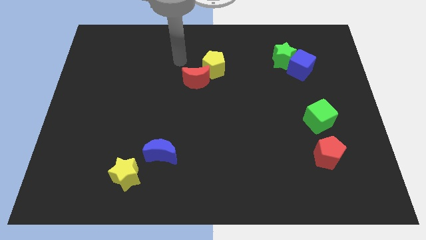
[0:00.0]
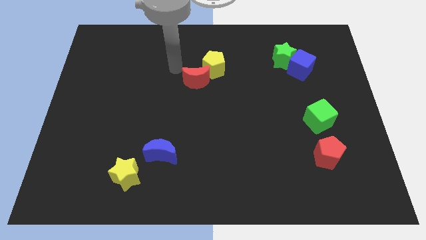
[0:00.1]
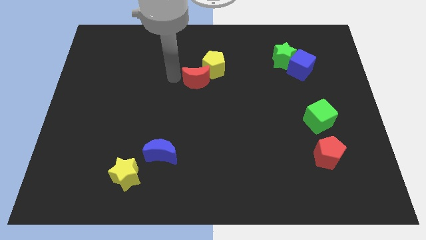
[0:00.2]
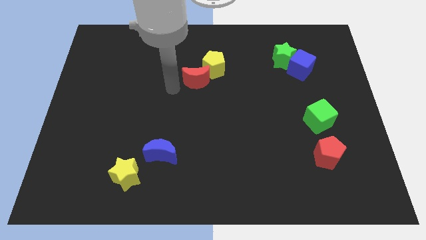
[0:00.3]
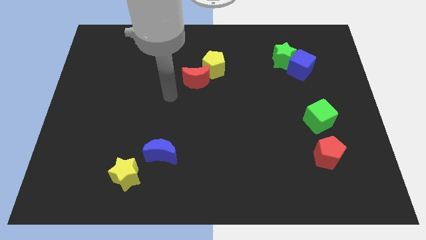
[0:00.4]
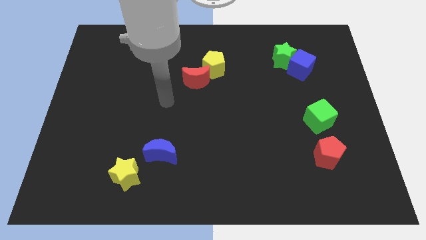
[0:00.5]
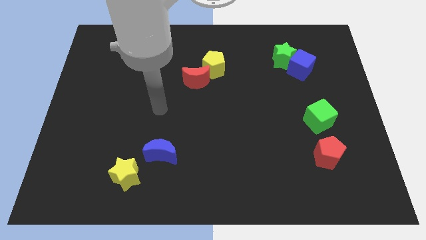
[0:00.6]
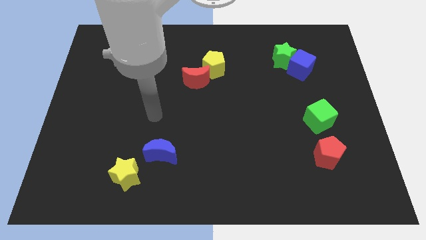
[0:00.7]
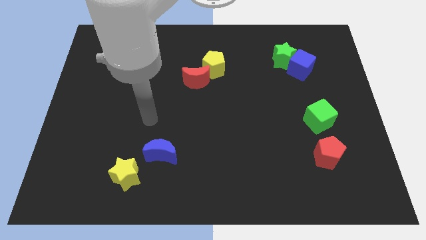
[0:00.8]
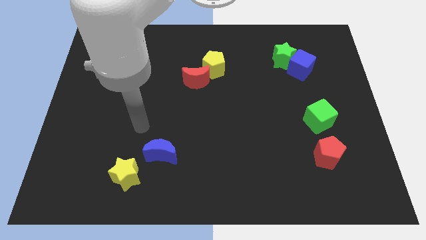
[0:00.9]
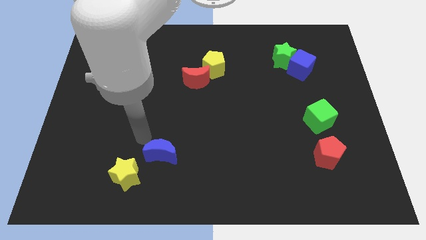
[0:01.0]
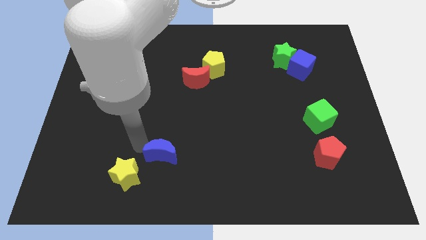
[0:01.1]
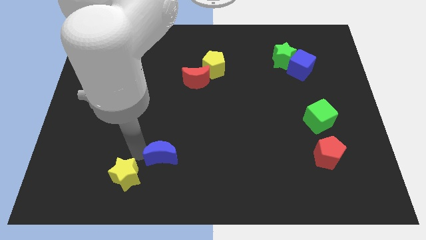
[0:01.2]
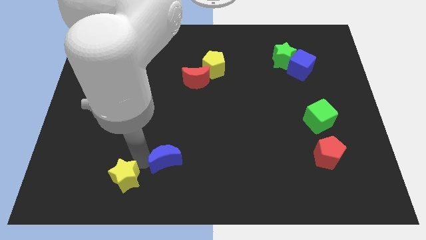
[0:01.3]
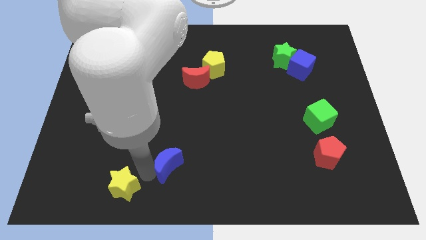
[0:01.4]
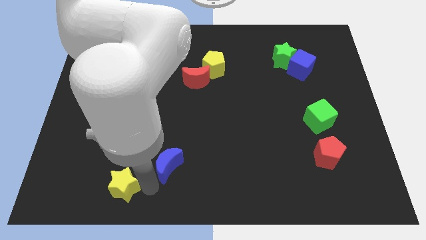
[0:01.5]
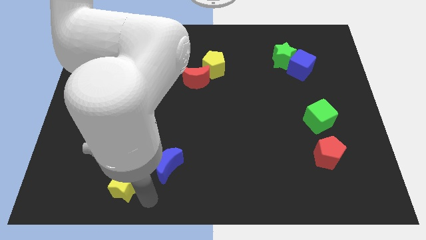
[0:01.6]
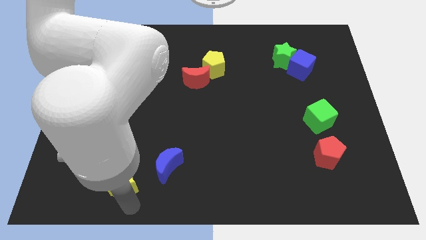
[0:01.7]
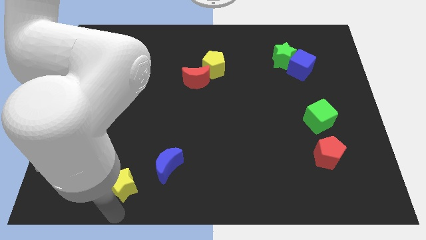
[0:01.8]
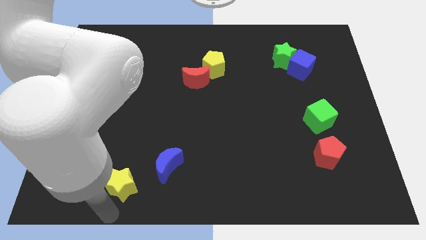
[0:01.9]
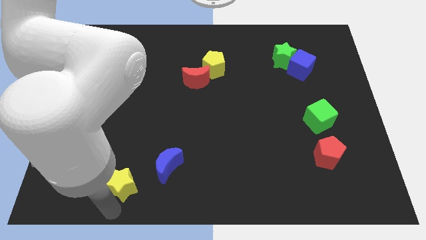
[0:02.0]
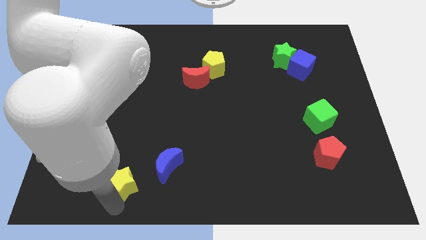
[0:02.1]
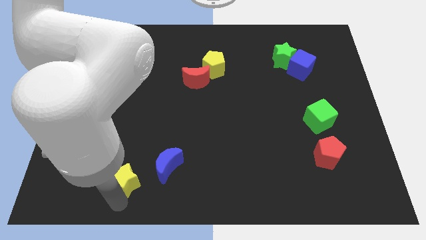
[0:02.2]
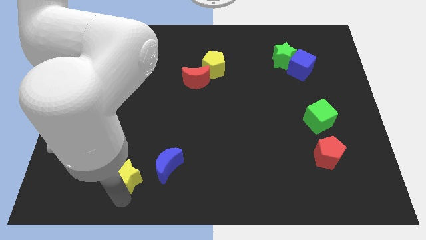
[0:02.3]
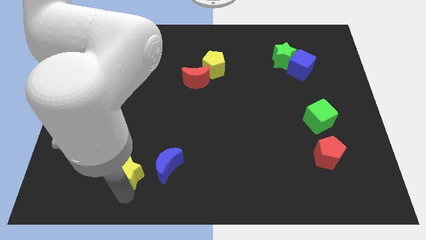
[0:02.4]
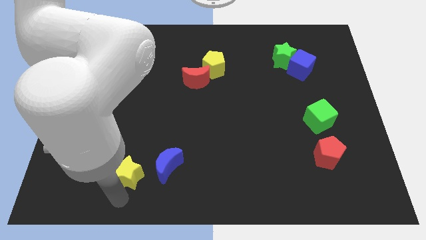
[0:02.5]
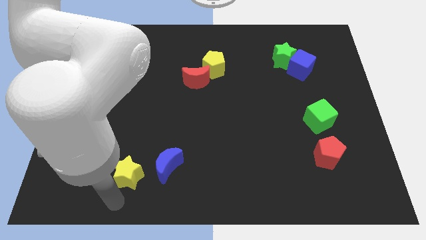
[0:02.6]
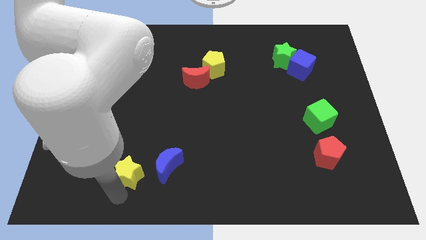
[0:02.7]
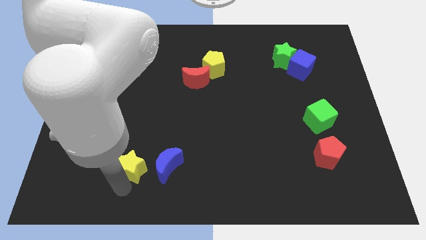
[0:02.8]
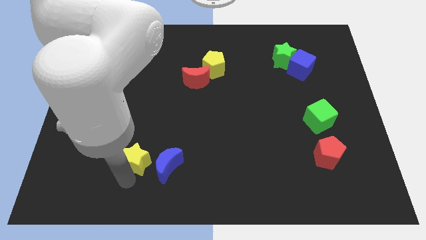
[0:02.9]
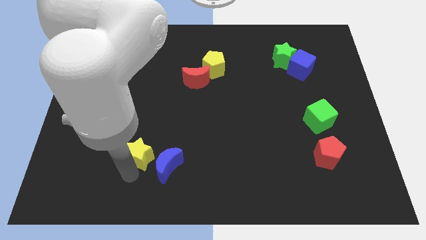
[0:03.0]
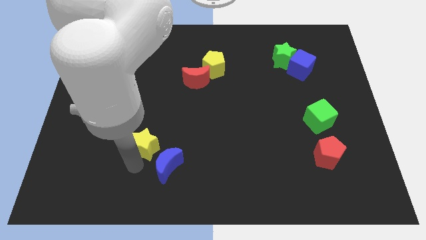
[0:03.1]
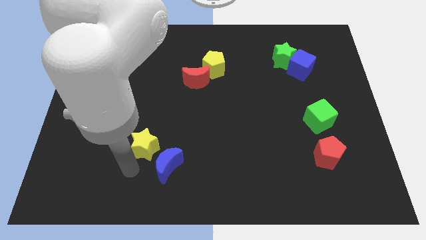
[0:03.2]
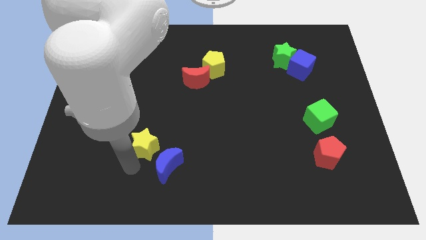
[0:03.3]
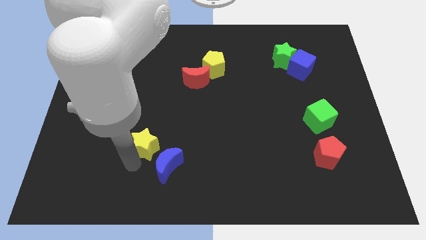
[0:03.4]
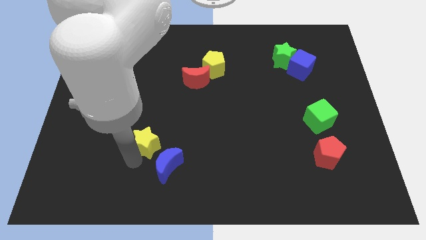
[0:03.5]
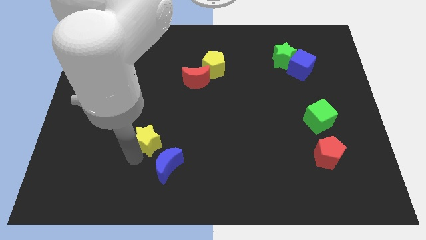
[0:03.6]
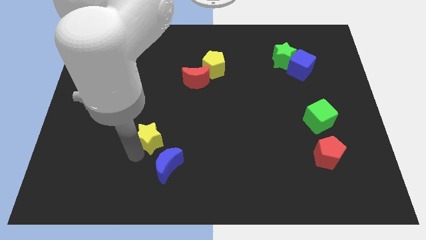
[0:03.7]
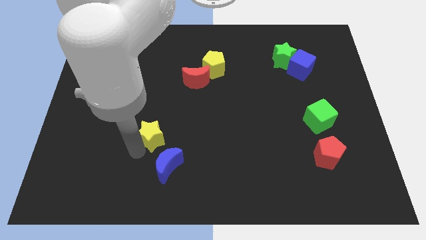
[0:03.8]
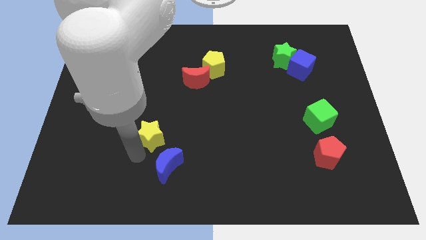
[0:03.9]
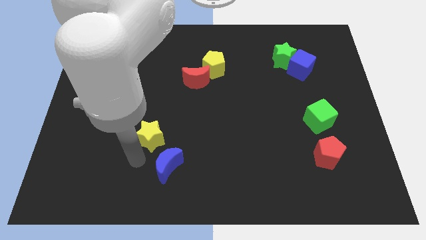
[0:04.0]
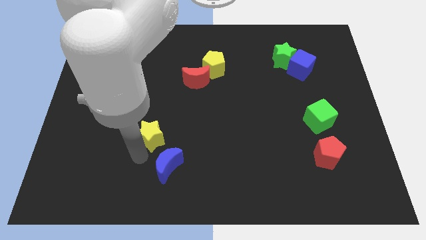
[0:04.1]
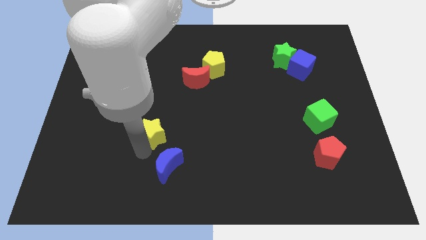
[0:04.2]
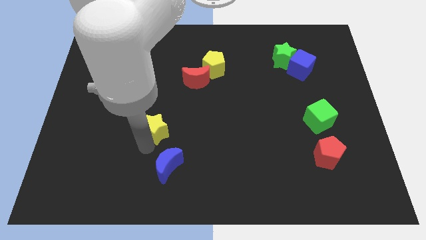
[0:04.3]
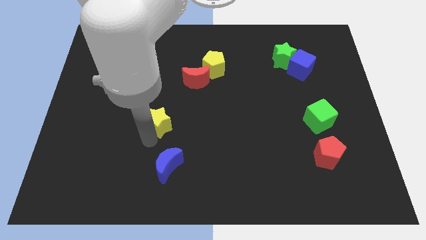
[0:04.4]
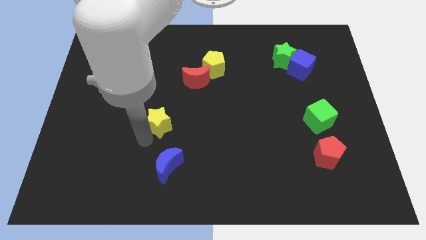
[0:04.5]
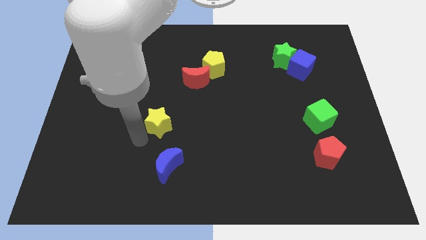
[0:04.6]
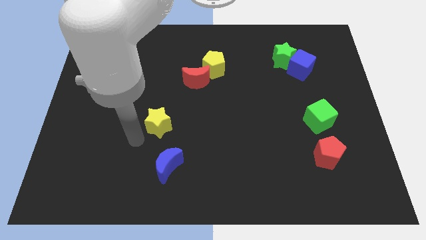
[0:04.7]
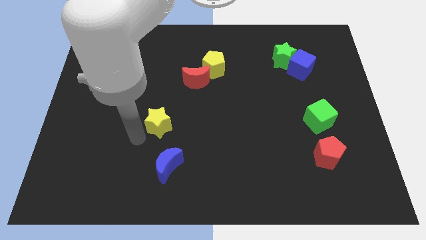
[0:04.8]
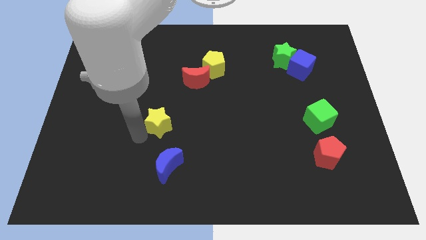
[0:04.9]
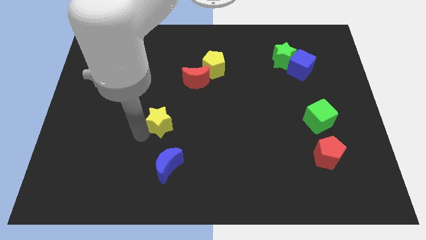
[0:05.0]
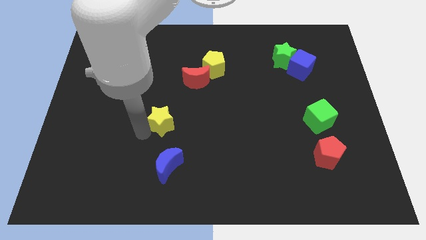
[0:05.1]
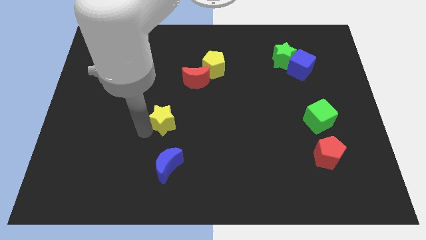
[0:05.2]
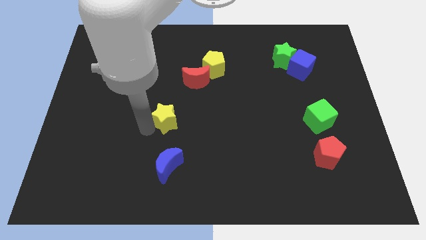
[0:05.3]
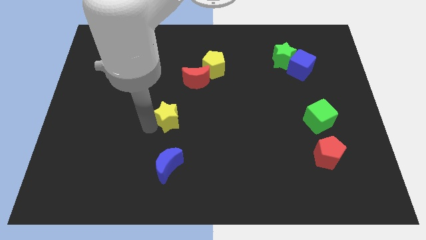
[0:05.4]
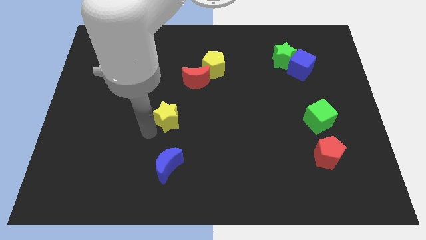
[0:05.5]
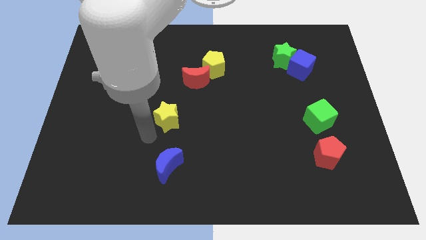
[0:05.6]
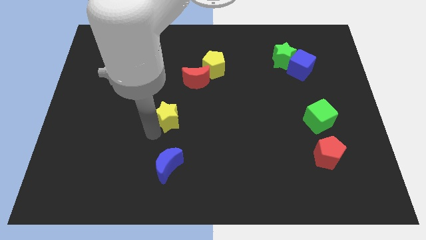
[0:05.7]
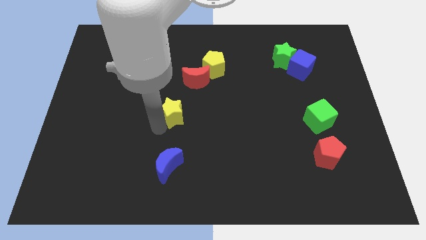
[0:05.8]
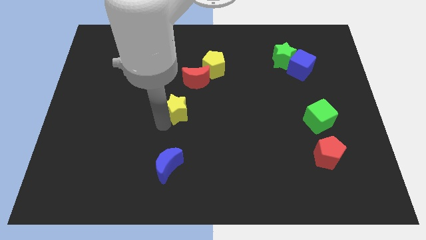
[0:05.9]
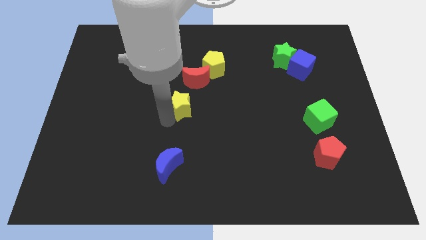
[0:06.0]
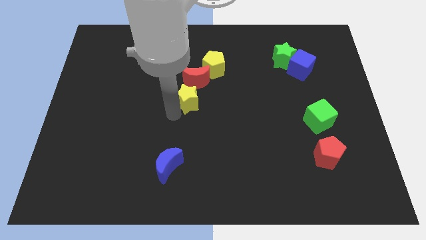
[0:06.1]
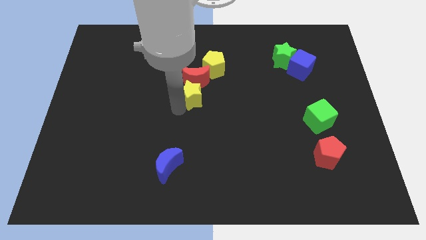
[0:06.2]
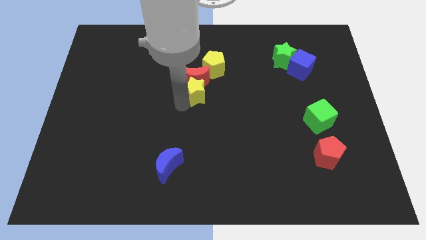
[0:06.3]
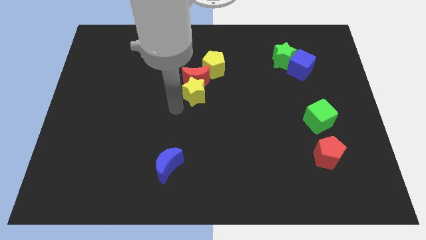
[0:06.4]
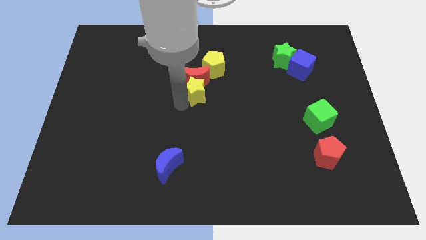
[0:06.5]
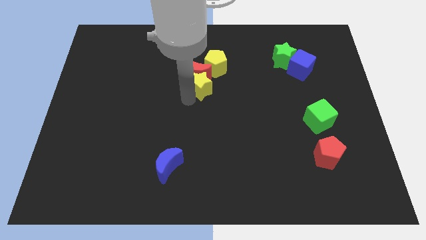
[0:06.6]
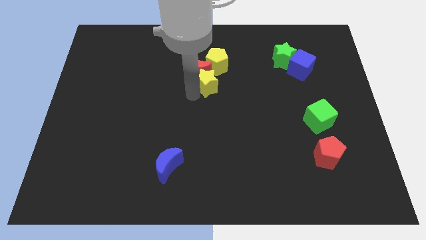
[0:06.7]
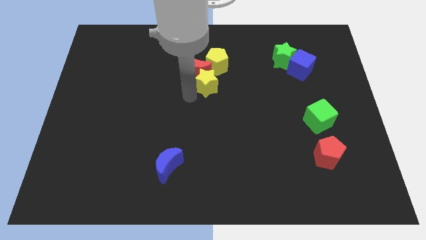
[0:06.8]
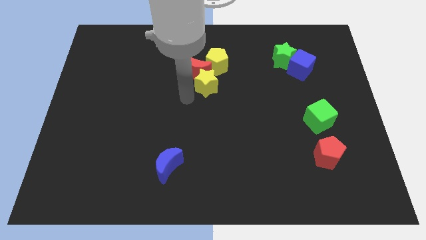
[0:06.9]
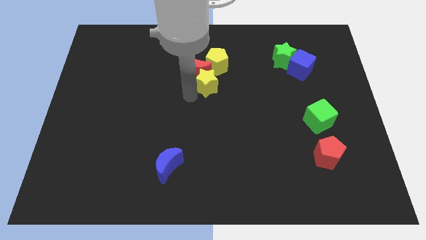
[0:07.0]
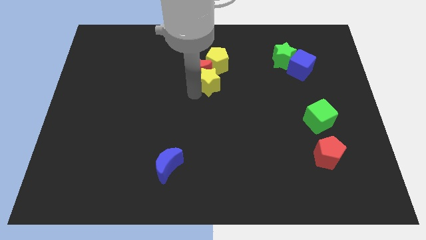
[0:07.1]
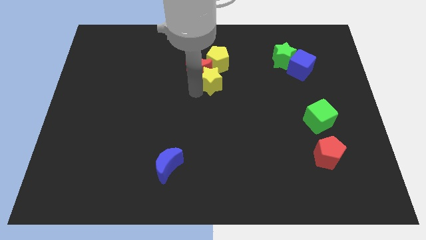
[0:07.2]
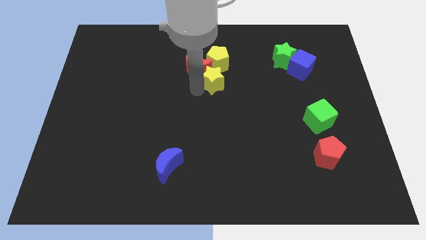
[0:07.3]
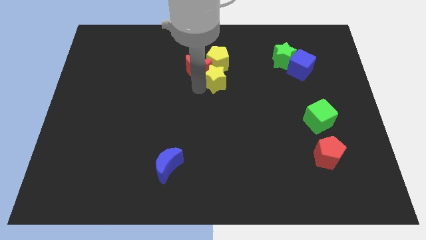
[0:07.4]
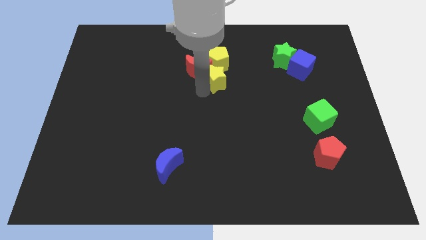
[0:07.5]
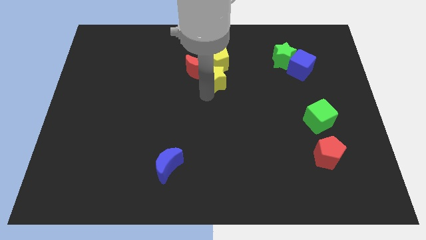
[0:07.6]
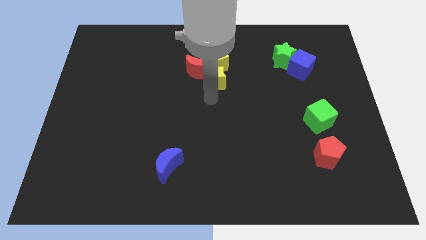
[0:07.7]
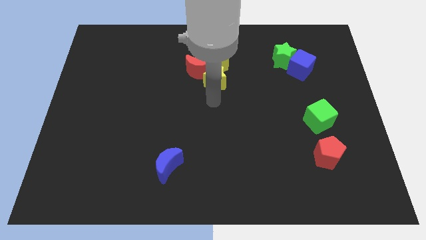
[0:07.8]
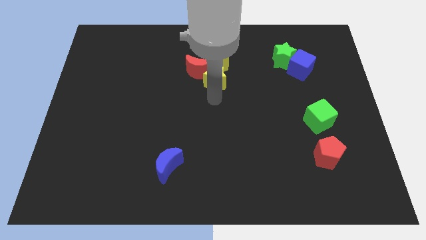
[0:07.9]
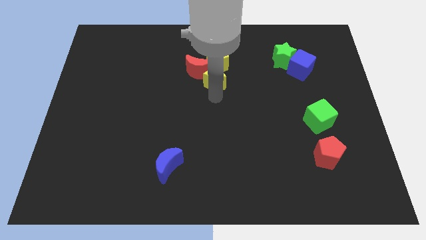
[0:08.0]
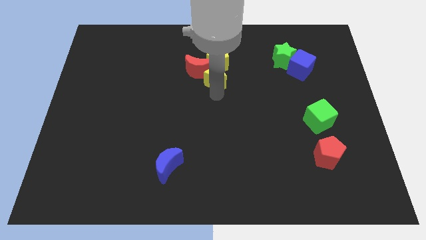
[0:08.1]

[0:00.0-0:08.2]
slide the yellow star towards the yellow pentagon
